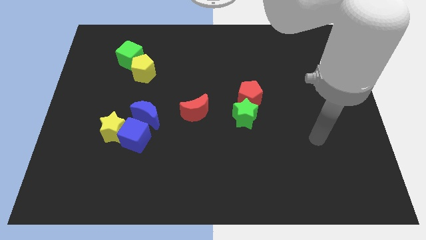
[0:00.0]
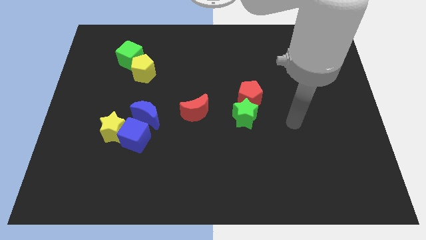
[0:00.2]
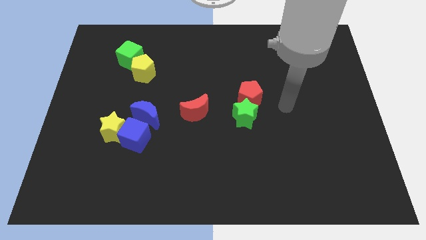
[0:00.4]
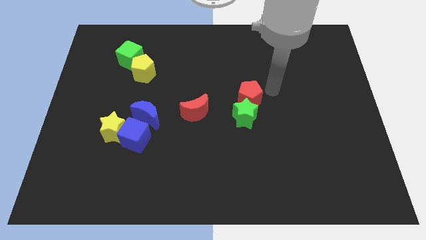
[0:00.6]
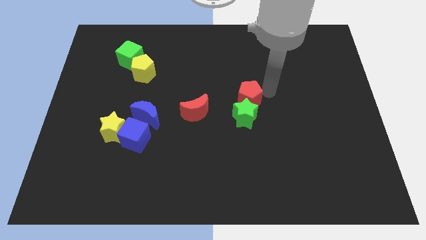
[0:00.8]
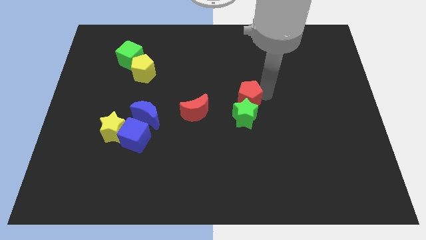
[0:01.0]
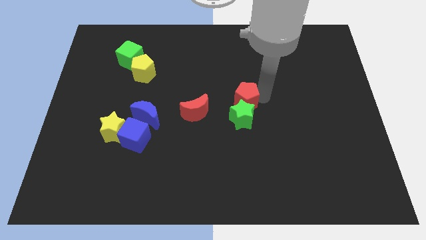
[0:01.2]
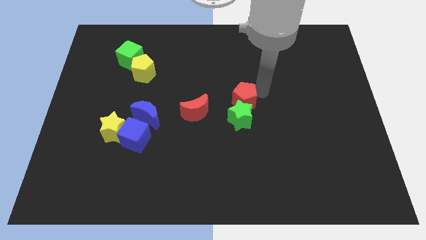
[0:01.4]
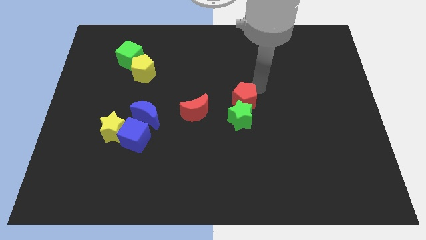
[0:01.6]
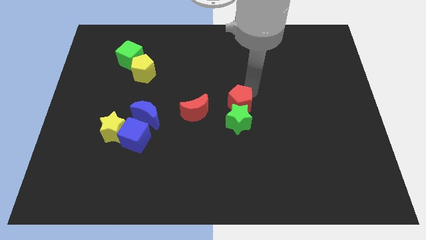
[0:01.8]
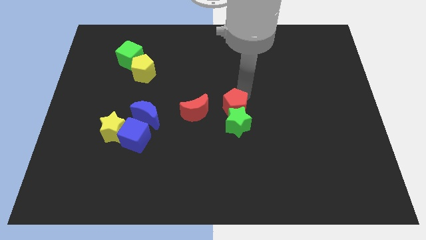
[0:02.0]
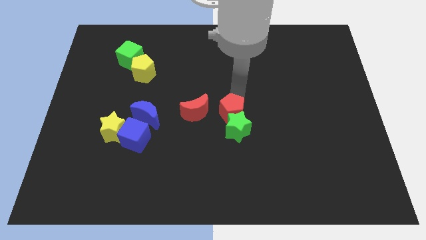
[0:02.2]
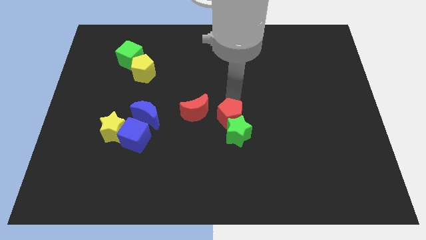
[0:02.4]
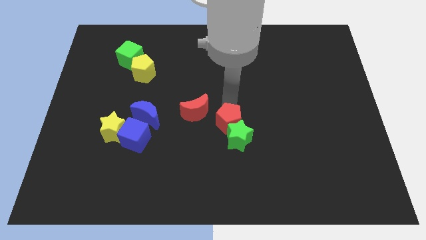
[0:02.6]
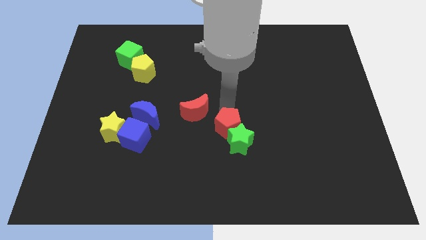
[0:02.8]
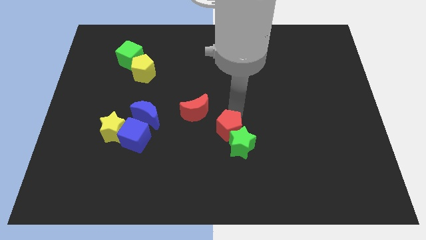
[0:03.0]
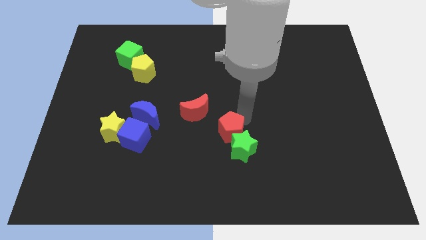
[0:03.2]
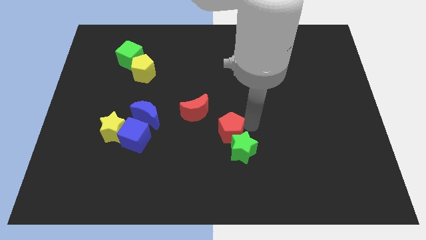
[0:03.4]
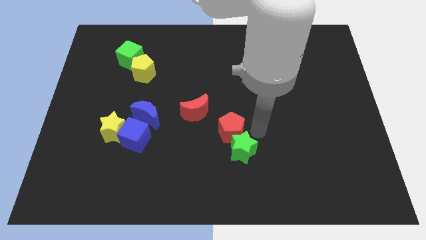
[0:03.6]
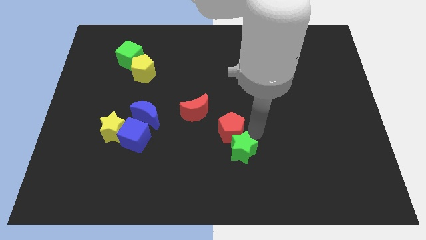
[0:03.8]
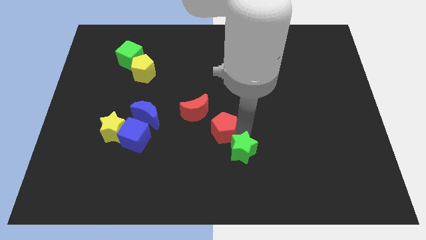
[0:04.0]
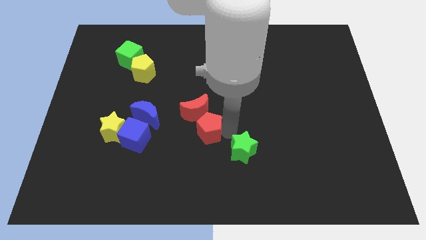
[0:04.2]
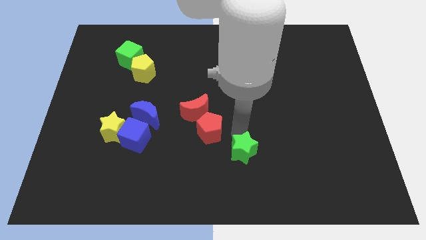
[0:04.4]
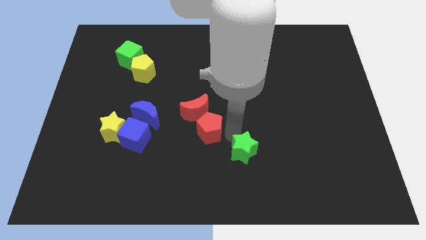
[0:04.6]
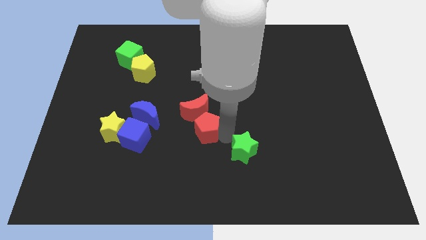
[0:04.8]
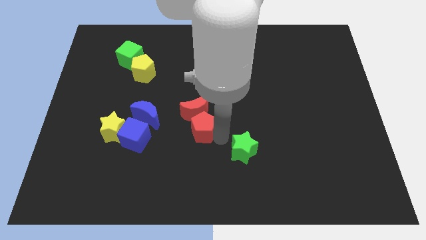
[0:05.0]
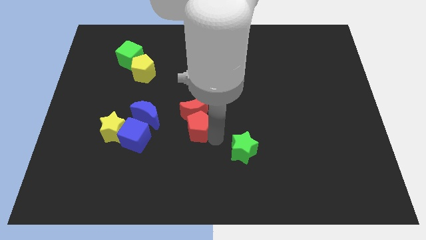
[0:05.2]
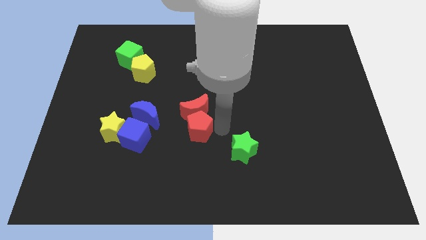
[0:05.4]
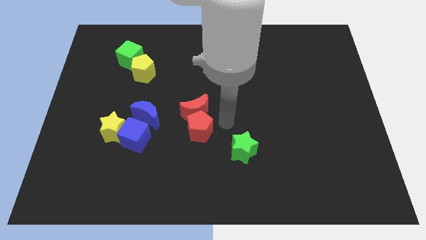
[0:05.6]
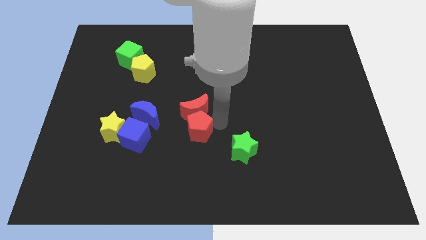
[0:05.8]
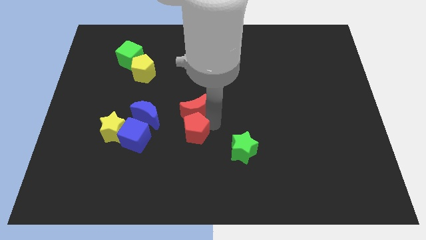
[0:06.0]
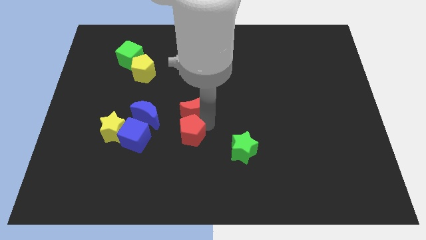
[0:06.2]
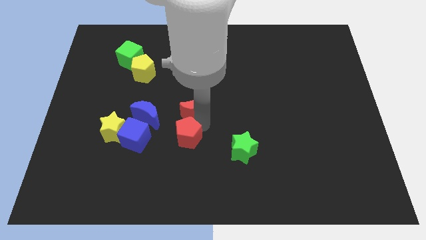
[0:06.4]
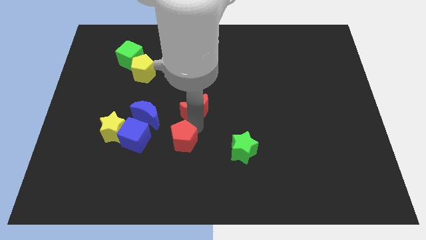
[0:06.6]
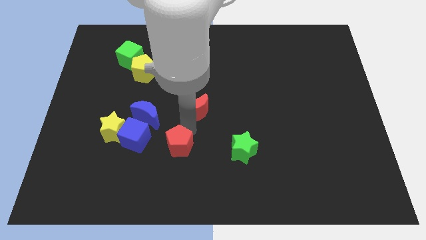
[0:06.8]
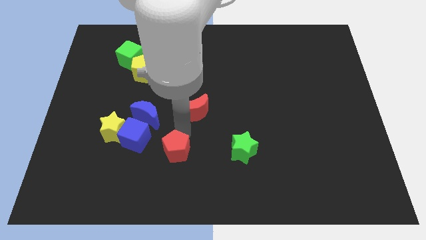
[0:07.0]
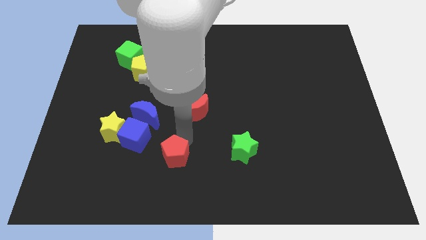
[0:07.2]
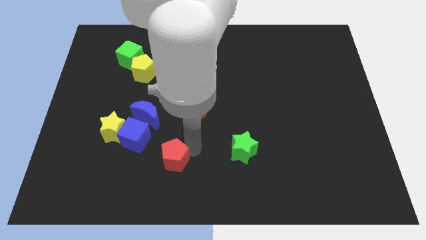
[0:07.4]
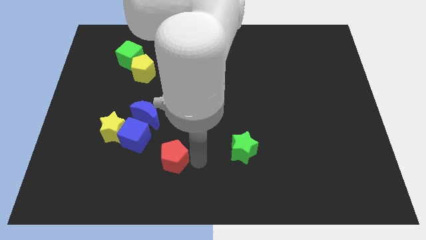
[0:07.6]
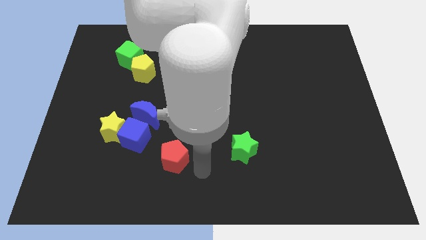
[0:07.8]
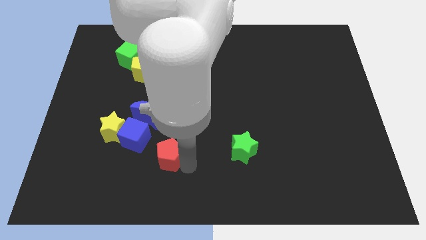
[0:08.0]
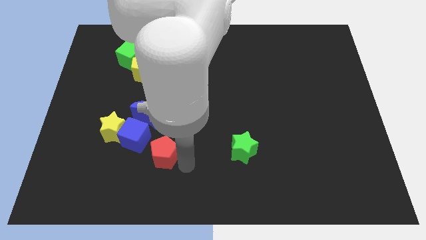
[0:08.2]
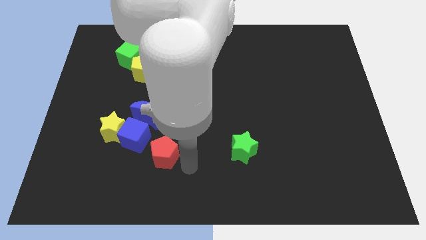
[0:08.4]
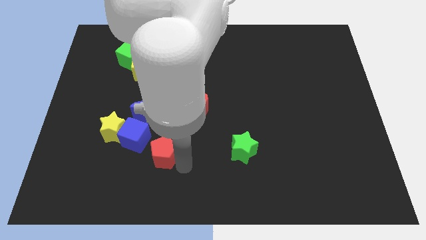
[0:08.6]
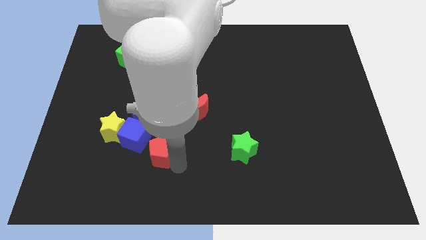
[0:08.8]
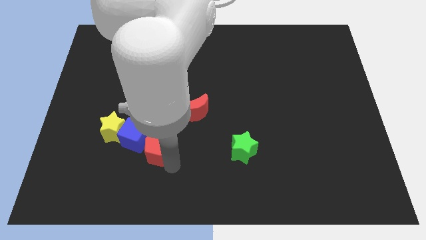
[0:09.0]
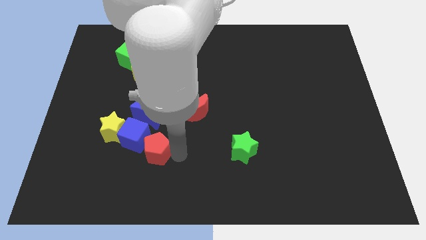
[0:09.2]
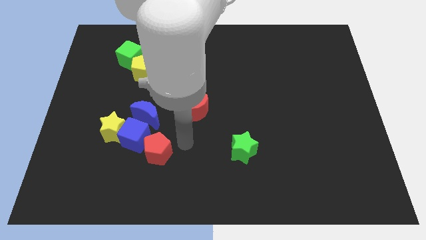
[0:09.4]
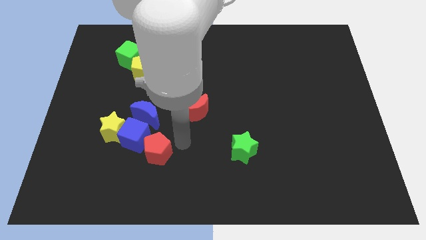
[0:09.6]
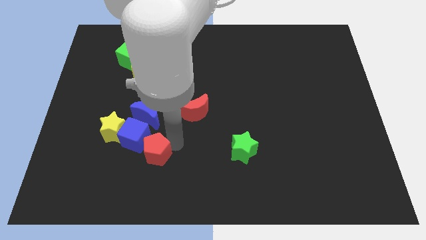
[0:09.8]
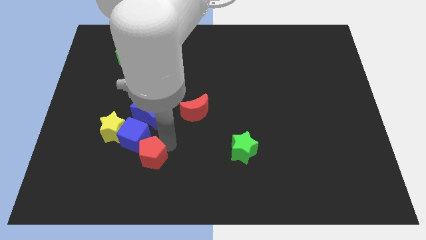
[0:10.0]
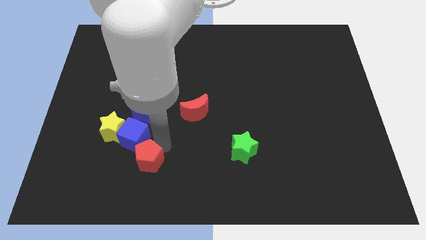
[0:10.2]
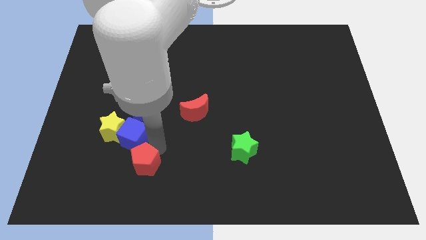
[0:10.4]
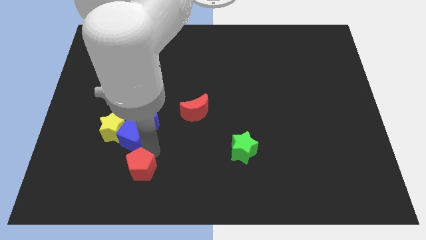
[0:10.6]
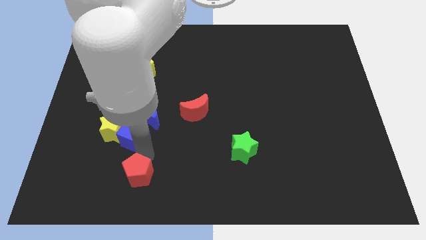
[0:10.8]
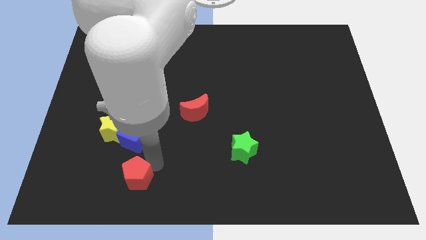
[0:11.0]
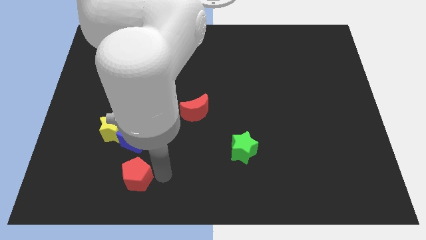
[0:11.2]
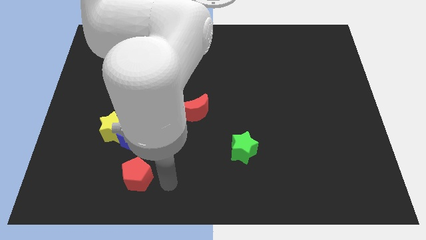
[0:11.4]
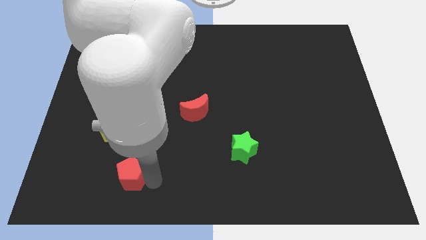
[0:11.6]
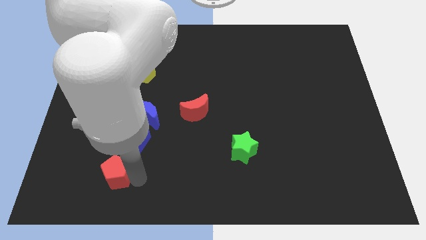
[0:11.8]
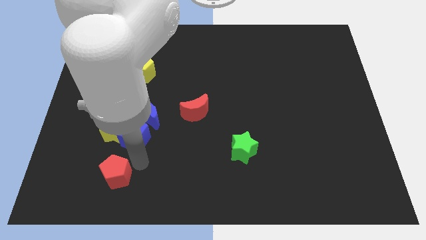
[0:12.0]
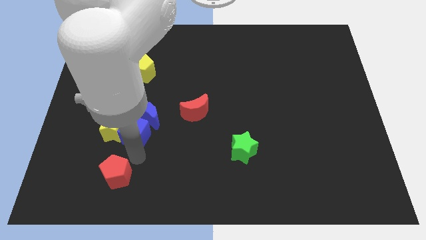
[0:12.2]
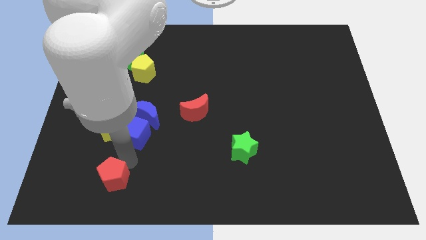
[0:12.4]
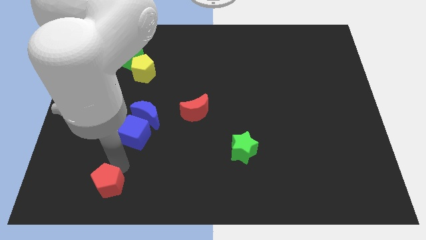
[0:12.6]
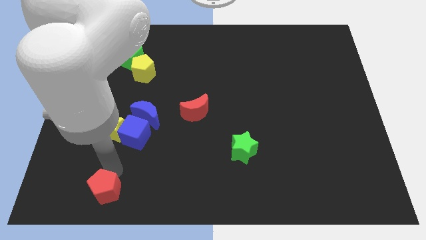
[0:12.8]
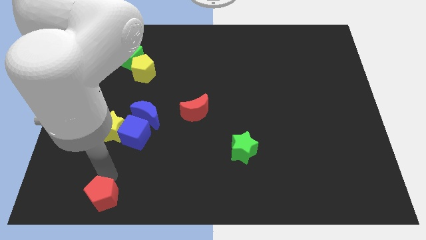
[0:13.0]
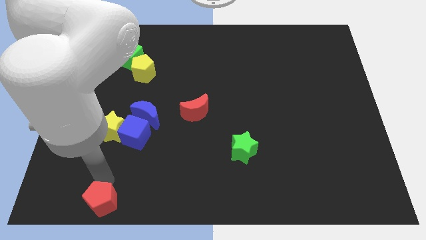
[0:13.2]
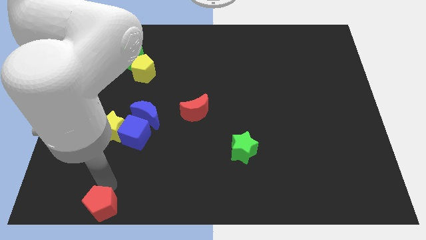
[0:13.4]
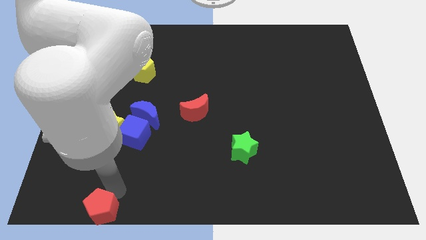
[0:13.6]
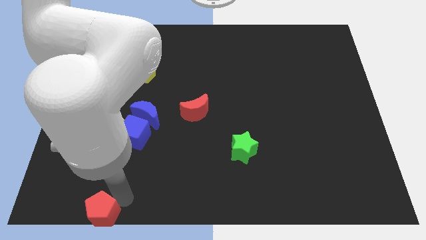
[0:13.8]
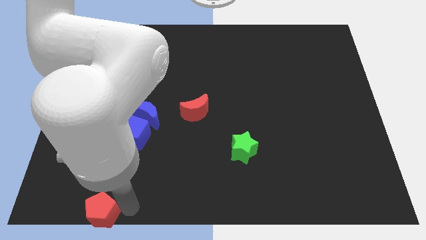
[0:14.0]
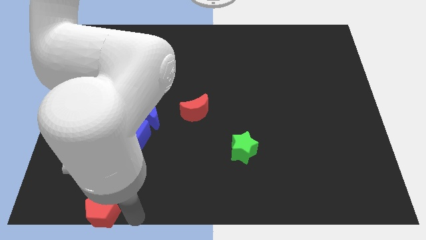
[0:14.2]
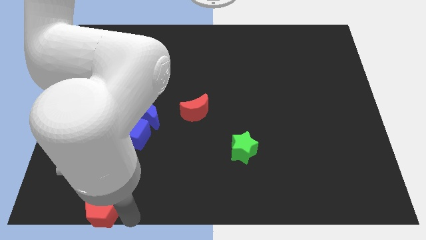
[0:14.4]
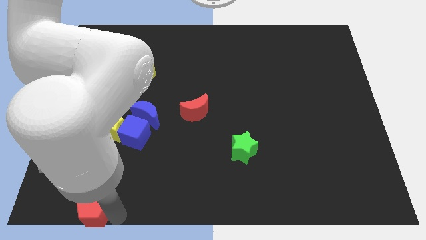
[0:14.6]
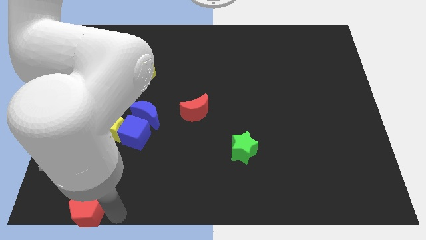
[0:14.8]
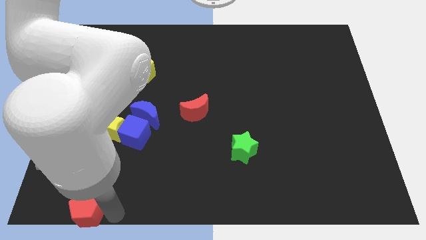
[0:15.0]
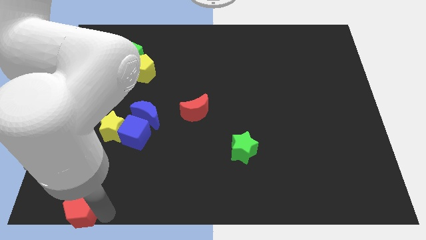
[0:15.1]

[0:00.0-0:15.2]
push the red pentagon to the lower left corner
